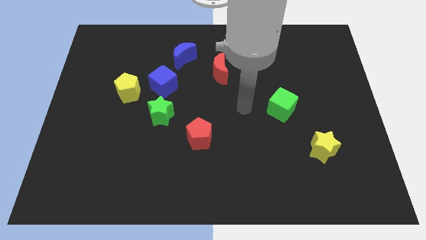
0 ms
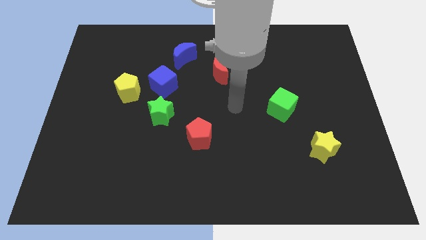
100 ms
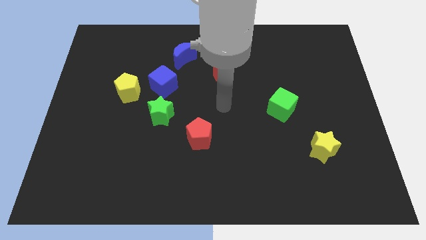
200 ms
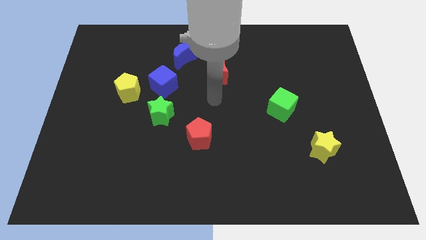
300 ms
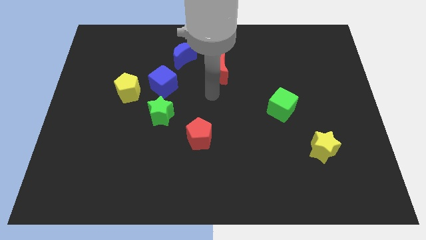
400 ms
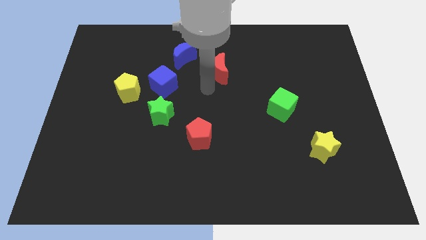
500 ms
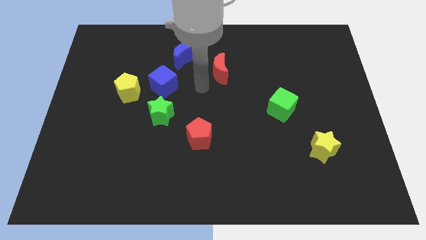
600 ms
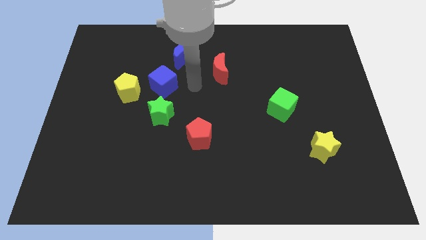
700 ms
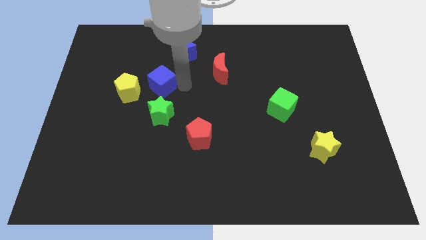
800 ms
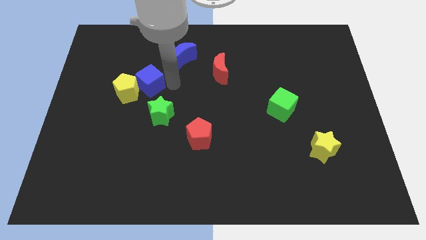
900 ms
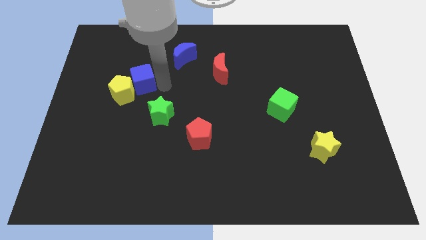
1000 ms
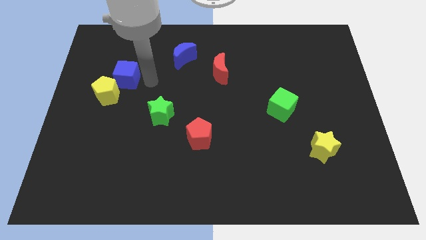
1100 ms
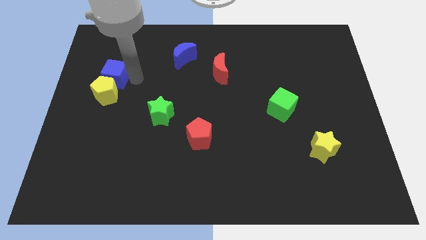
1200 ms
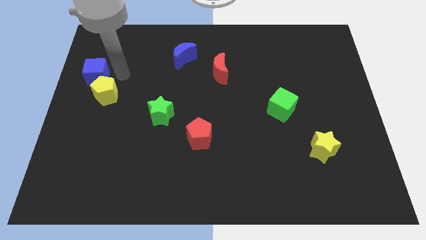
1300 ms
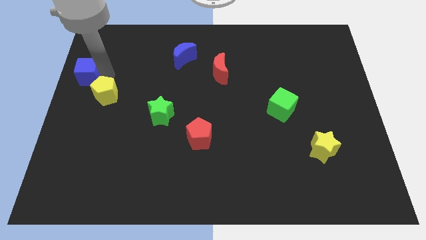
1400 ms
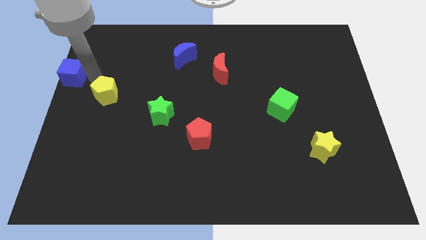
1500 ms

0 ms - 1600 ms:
move the yellow pentagon away from the blue cube

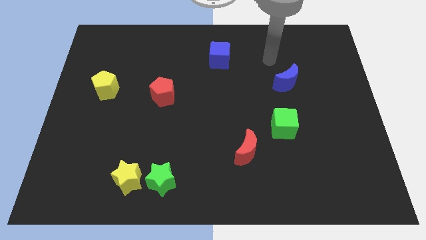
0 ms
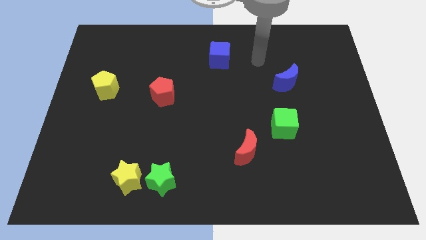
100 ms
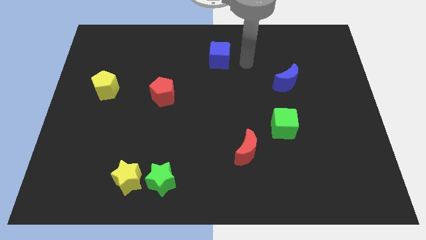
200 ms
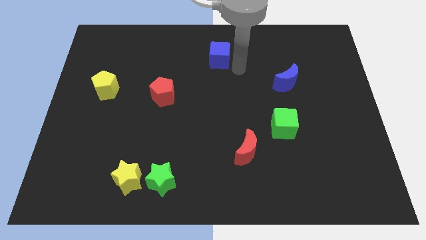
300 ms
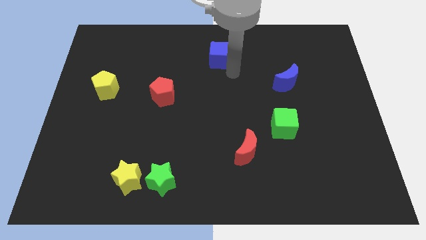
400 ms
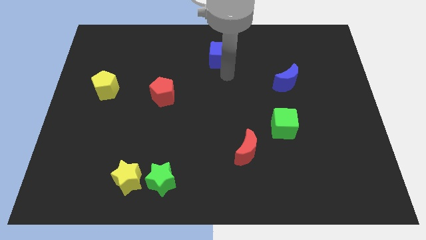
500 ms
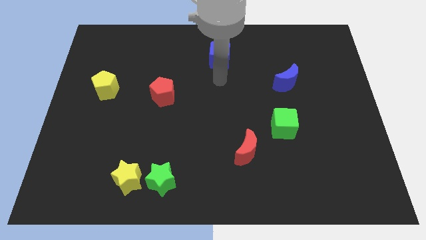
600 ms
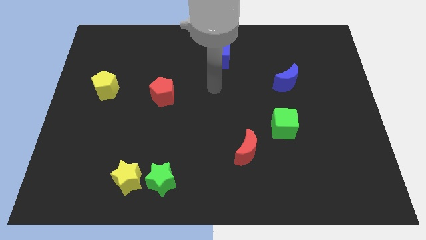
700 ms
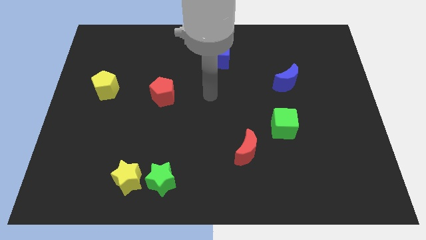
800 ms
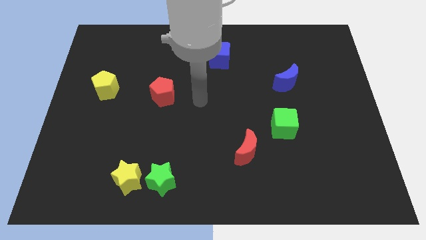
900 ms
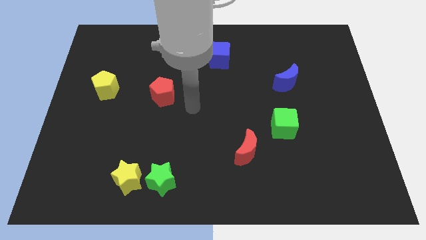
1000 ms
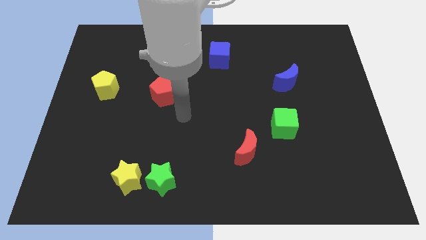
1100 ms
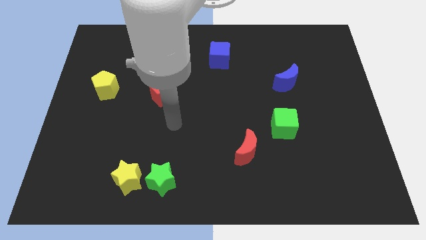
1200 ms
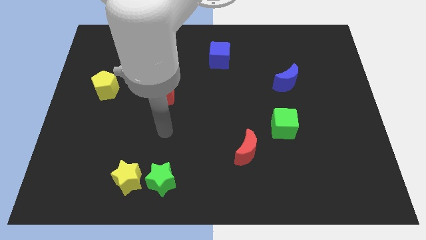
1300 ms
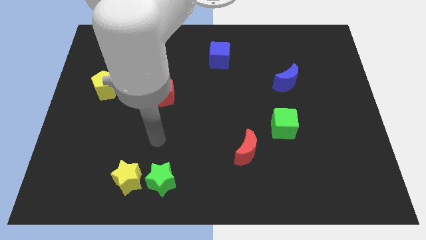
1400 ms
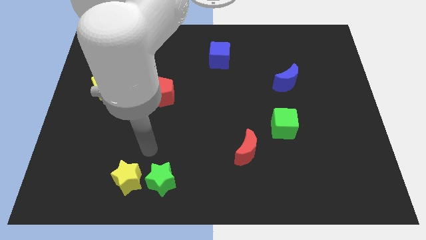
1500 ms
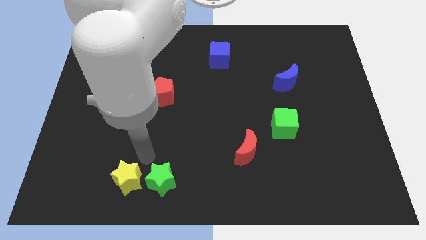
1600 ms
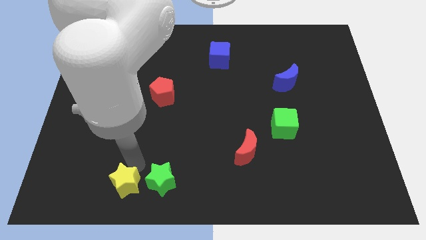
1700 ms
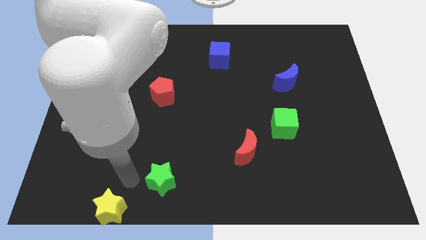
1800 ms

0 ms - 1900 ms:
pull the green star apart from the yellow star

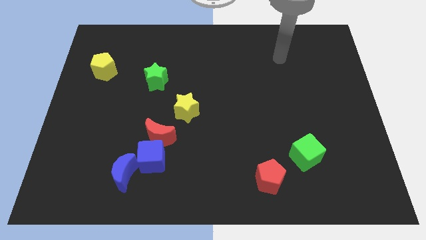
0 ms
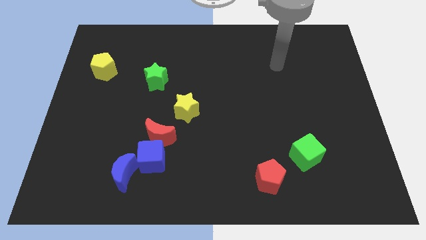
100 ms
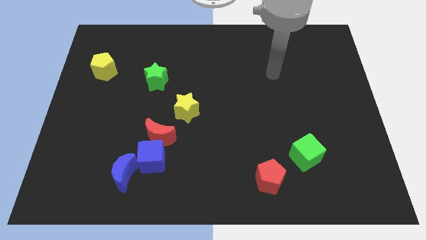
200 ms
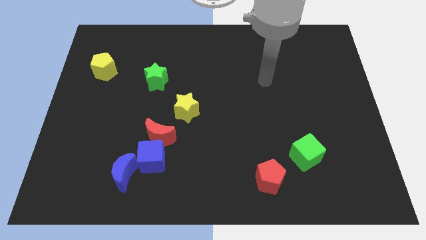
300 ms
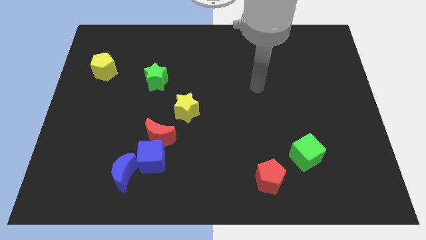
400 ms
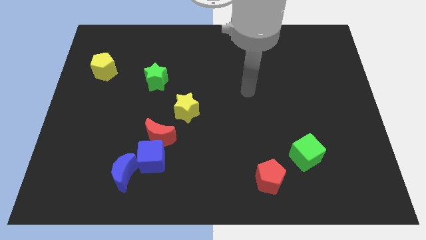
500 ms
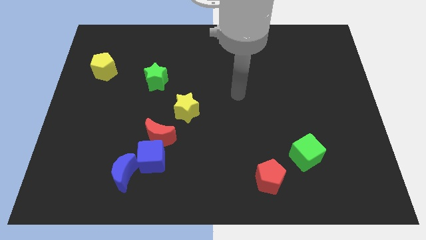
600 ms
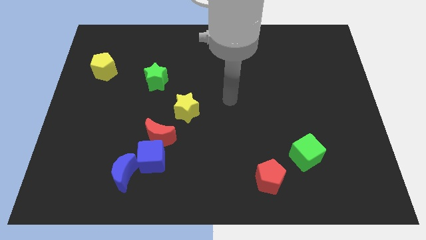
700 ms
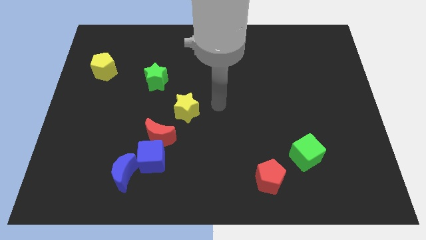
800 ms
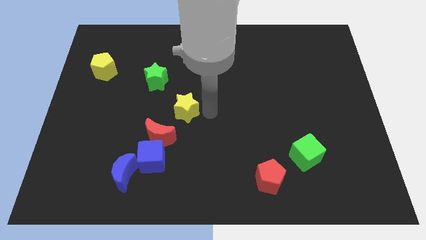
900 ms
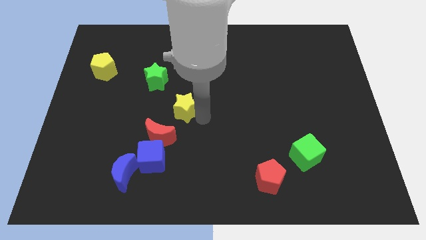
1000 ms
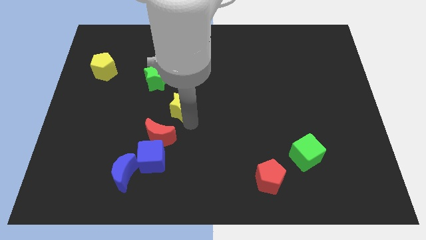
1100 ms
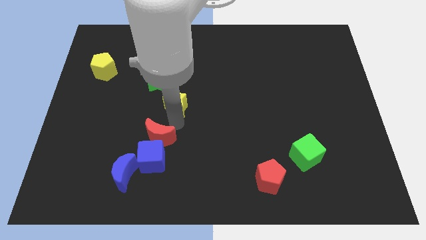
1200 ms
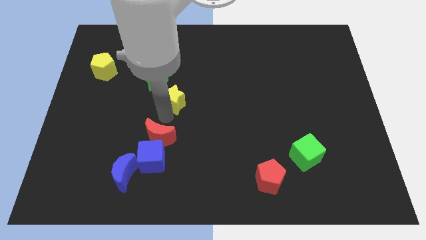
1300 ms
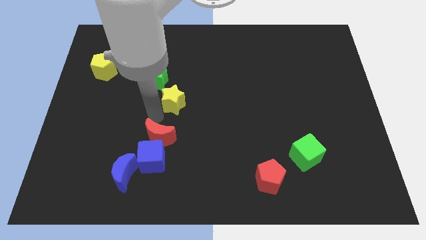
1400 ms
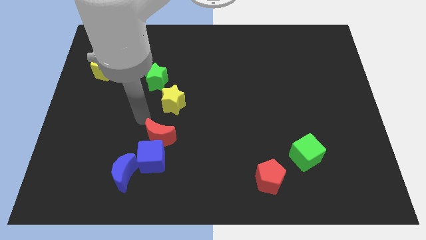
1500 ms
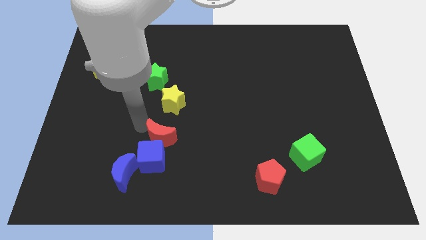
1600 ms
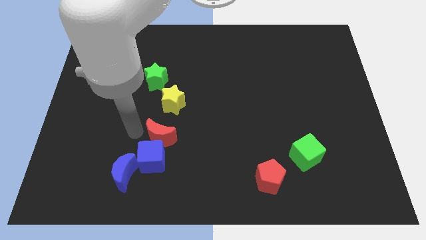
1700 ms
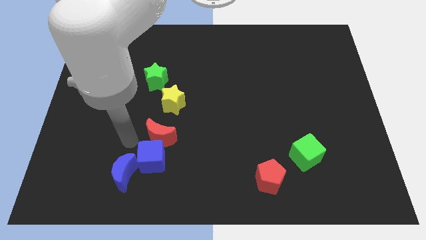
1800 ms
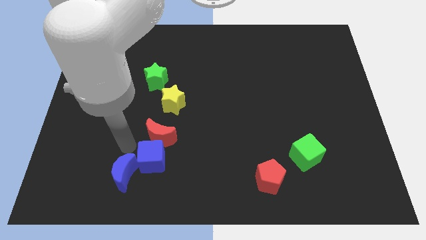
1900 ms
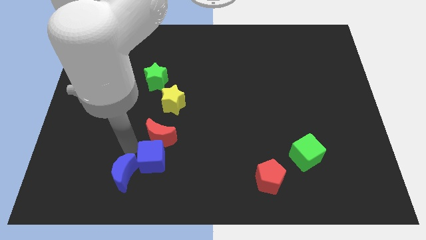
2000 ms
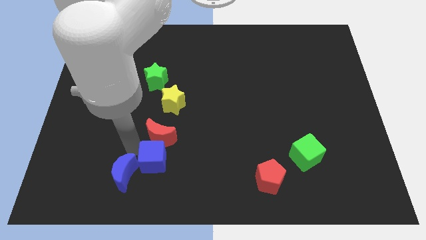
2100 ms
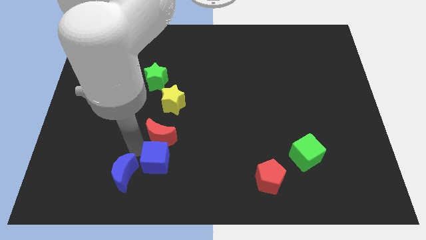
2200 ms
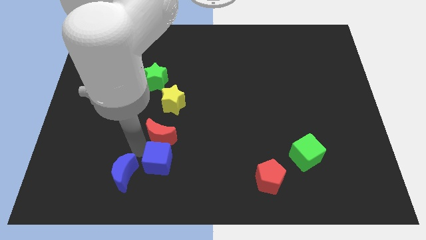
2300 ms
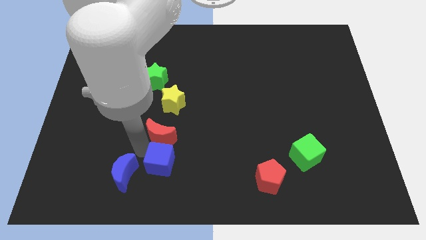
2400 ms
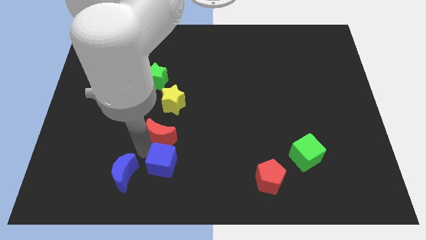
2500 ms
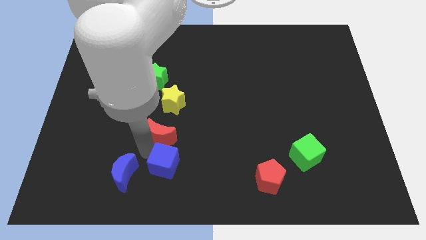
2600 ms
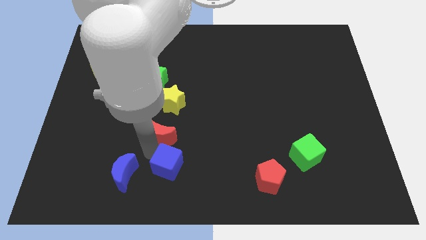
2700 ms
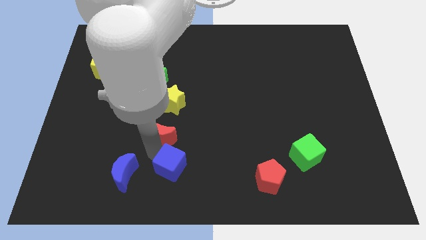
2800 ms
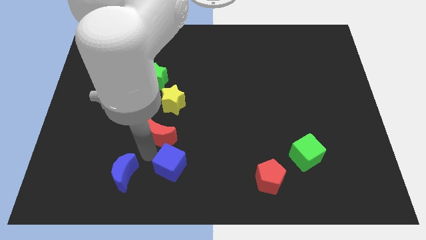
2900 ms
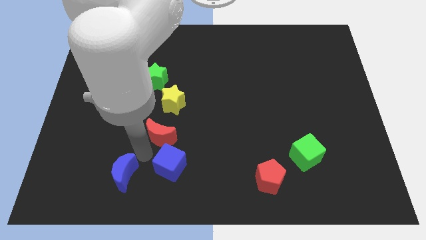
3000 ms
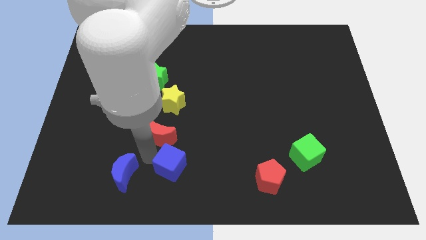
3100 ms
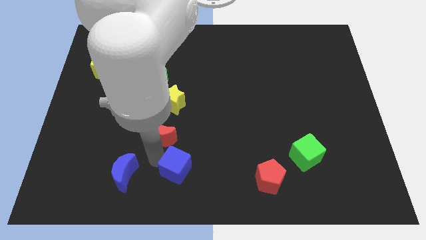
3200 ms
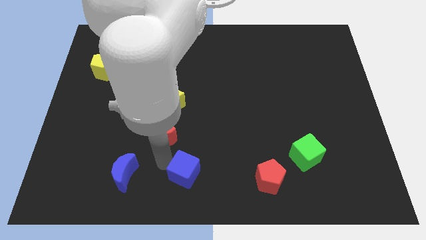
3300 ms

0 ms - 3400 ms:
move the blue cube away from the red moon and blue moon

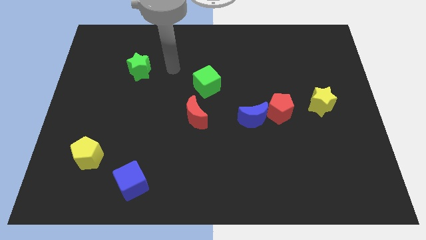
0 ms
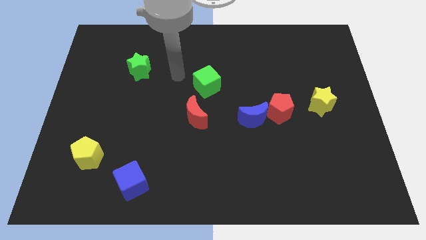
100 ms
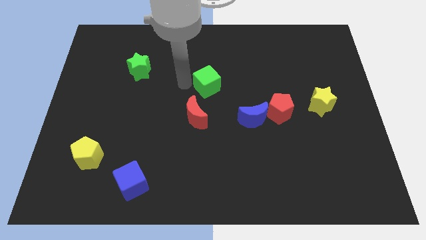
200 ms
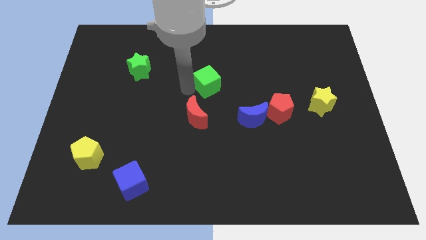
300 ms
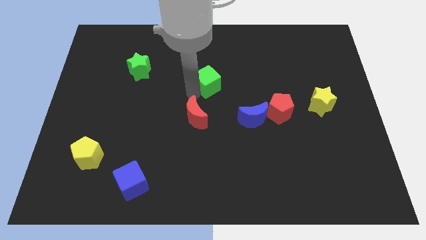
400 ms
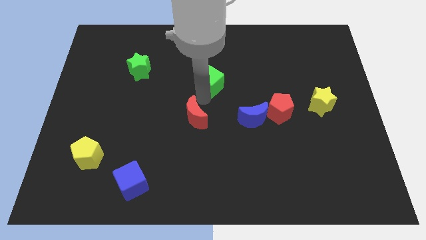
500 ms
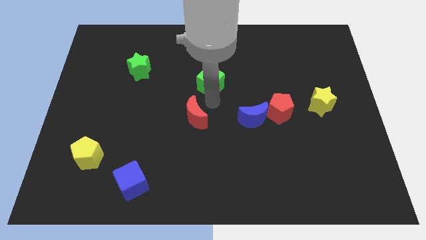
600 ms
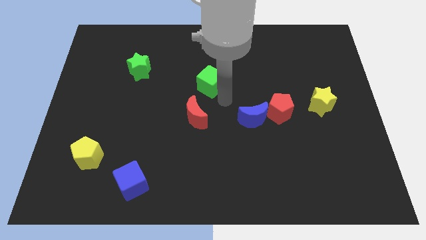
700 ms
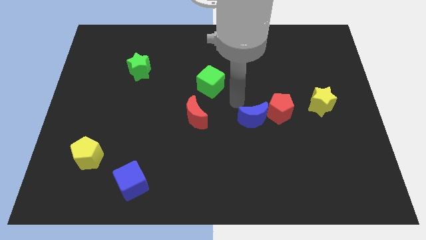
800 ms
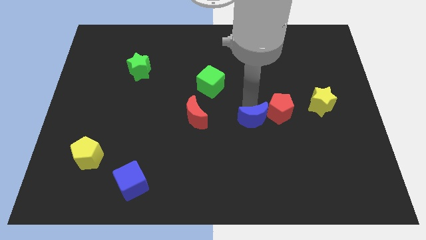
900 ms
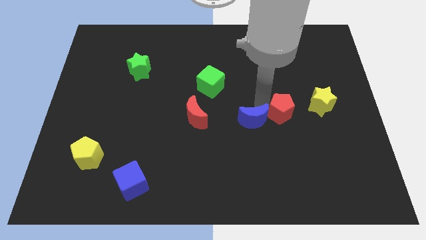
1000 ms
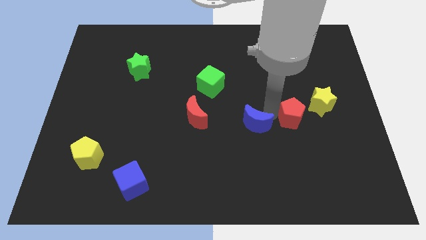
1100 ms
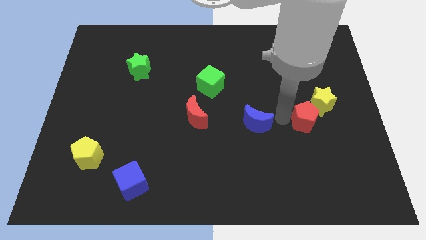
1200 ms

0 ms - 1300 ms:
pull the blue moon apart from the red pentagon

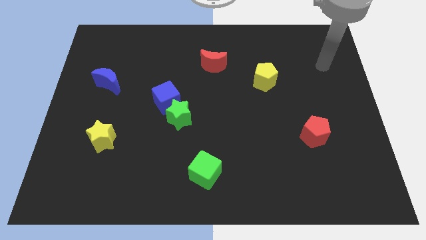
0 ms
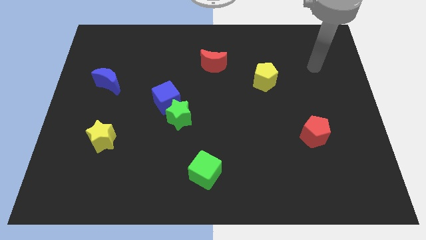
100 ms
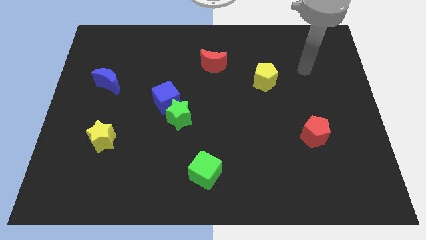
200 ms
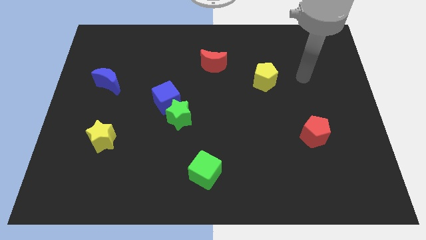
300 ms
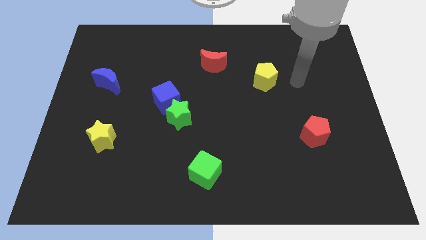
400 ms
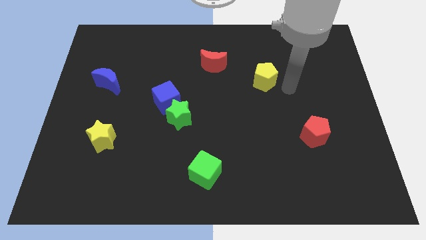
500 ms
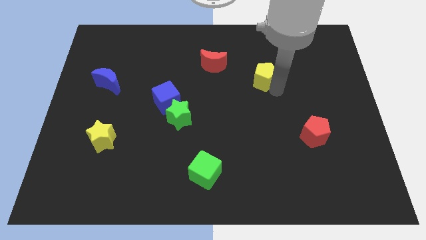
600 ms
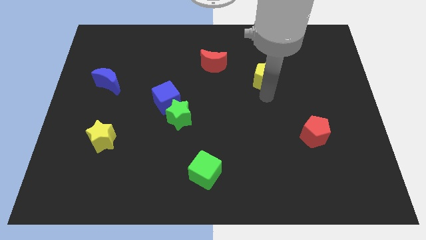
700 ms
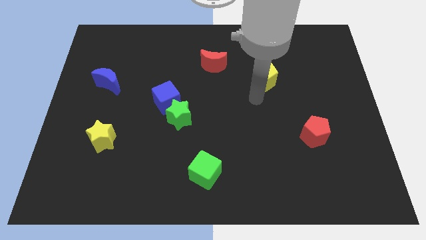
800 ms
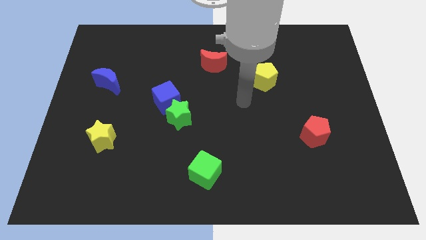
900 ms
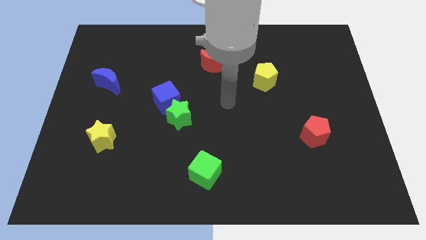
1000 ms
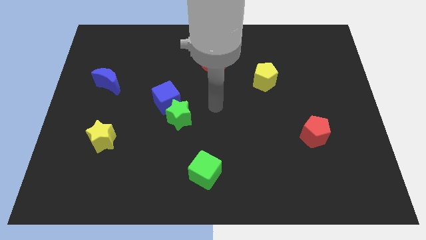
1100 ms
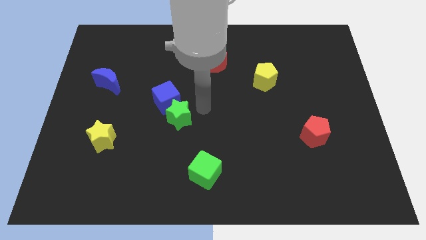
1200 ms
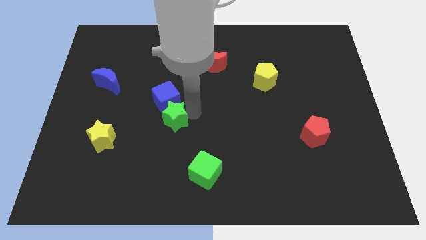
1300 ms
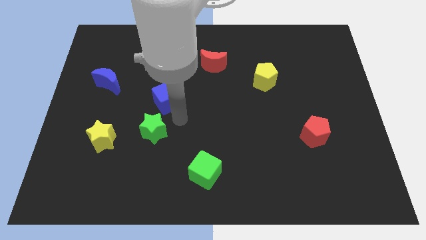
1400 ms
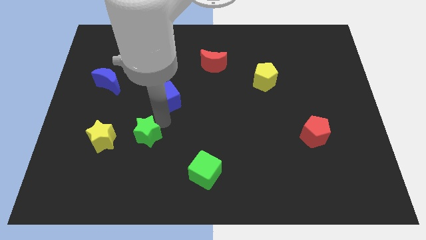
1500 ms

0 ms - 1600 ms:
move the blue cube away from the green star
